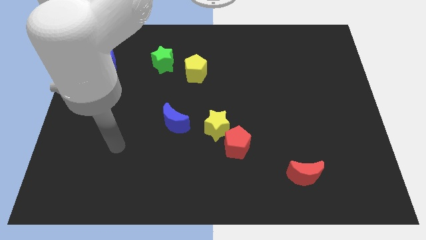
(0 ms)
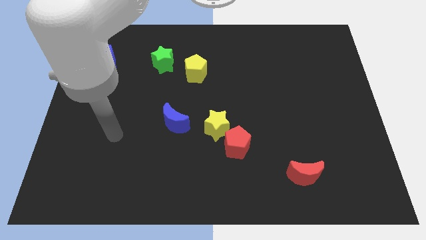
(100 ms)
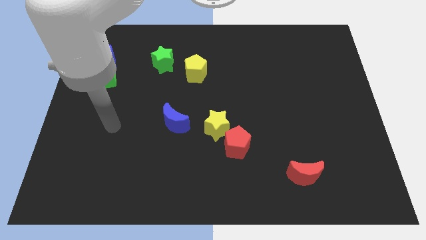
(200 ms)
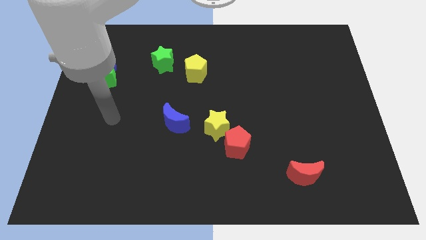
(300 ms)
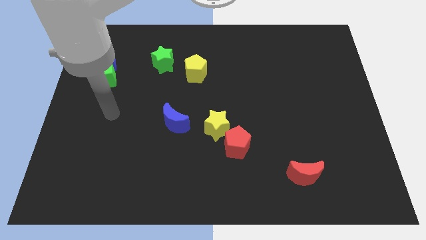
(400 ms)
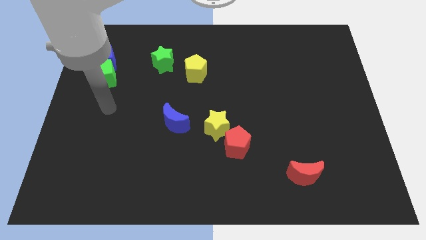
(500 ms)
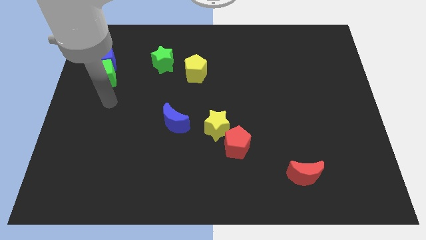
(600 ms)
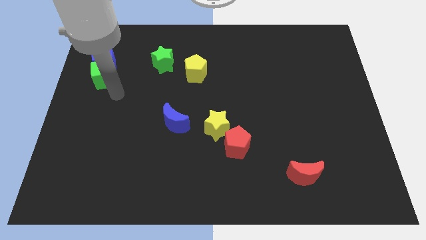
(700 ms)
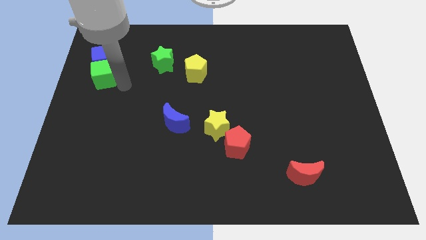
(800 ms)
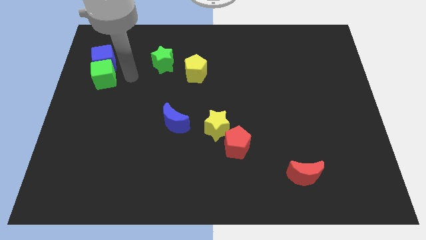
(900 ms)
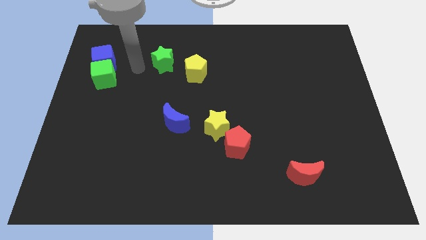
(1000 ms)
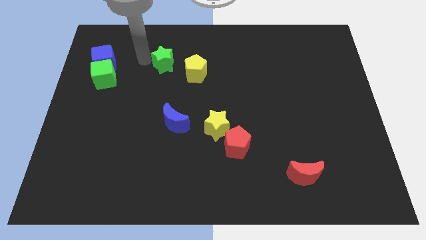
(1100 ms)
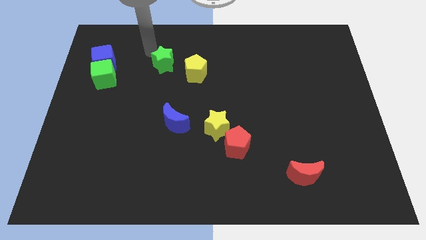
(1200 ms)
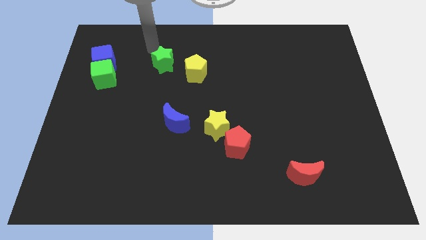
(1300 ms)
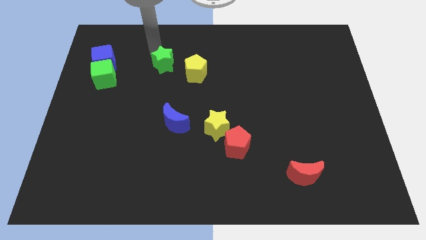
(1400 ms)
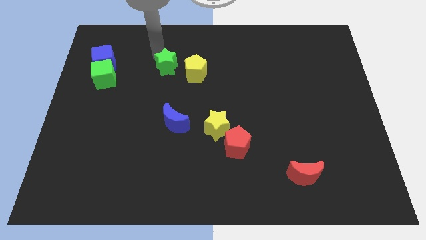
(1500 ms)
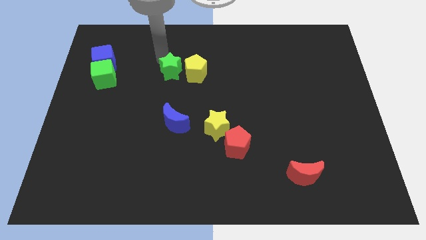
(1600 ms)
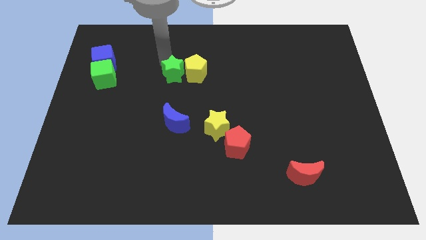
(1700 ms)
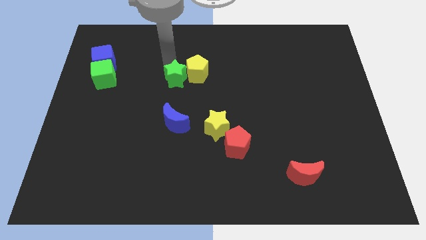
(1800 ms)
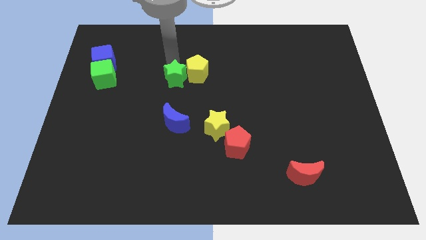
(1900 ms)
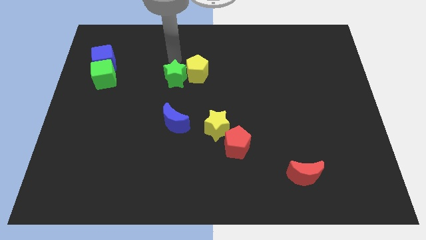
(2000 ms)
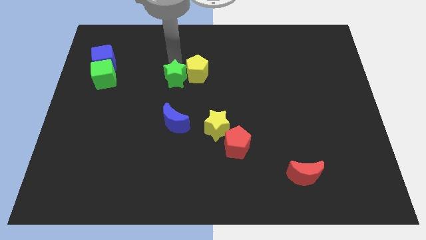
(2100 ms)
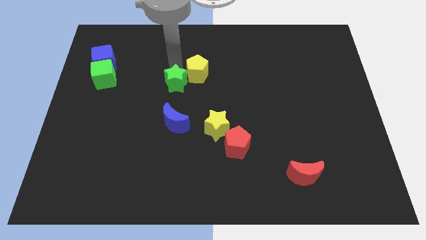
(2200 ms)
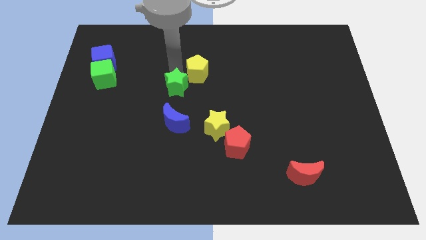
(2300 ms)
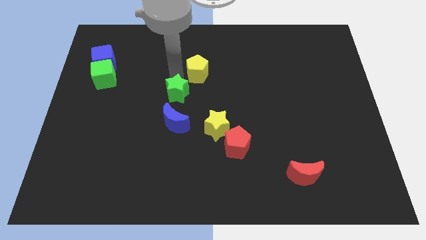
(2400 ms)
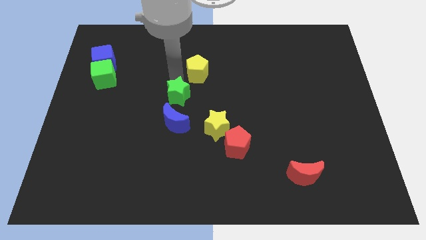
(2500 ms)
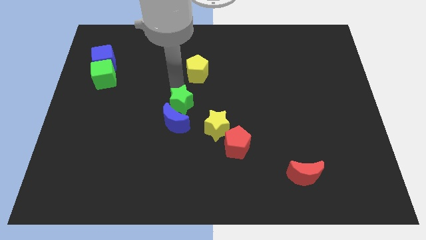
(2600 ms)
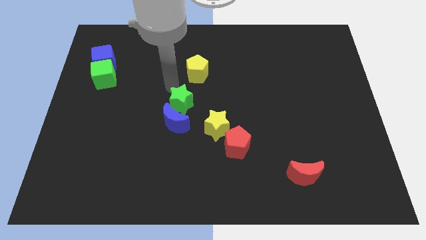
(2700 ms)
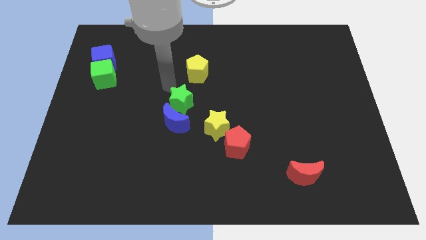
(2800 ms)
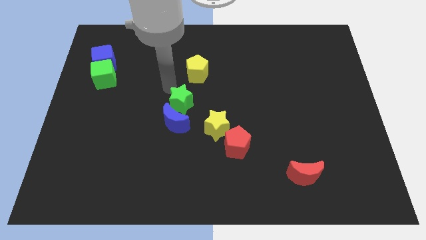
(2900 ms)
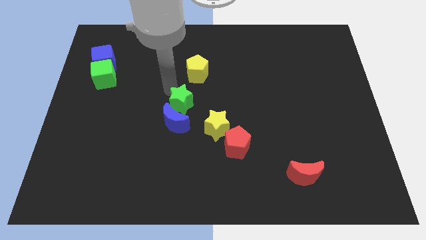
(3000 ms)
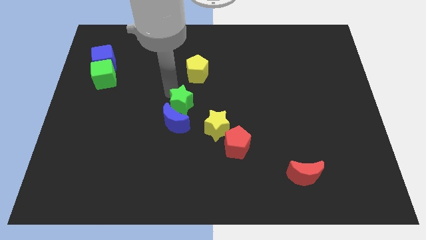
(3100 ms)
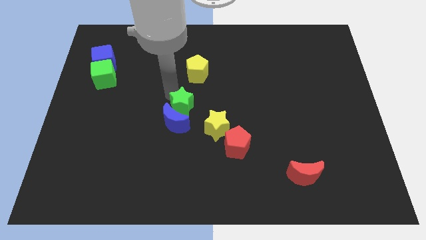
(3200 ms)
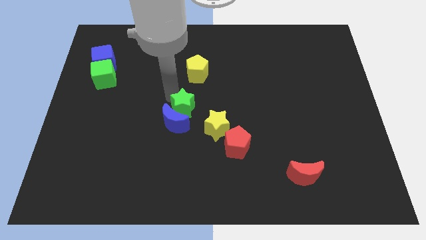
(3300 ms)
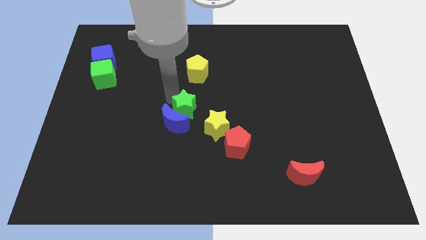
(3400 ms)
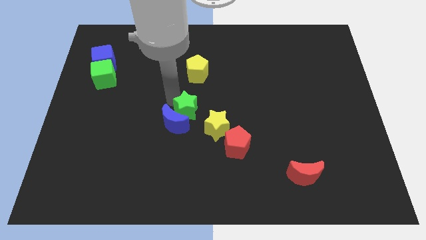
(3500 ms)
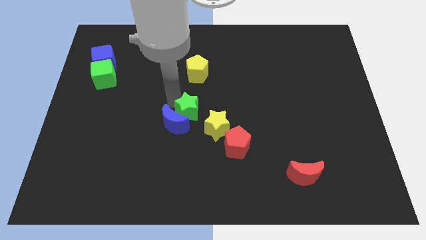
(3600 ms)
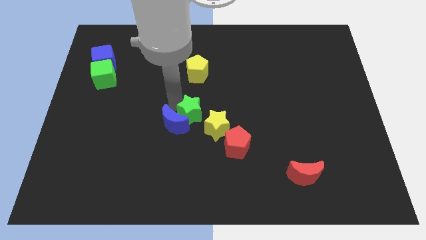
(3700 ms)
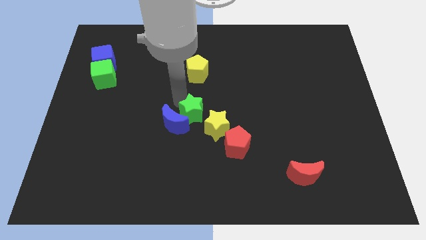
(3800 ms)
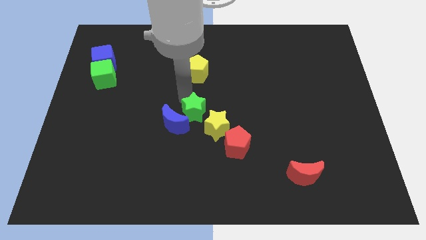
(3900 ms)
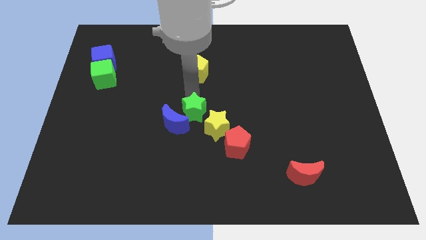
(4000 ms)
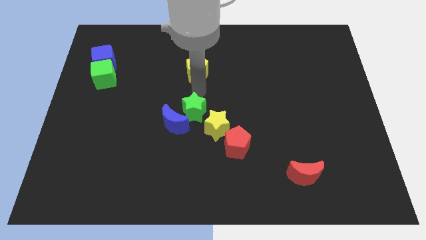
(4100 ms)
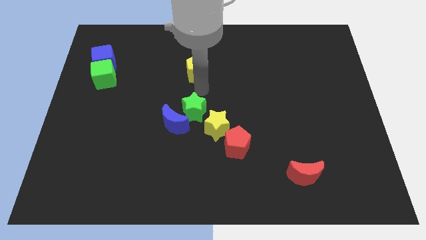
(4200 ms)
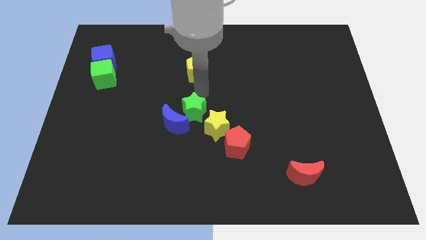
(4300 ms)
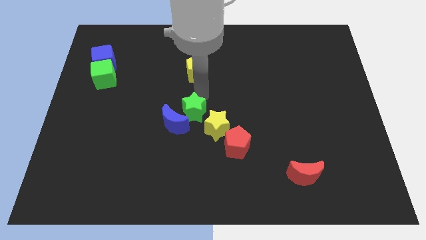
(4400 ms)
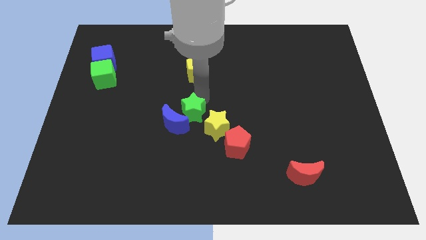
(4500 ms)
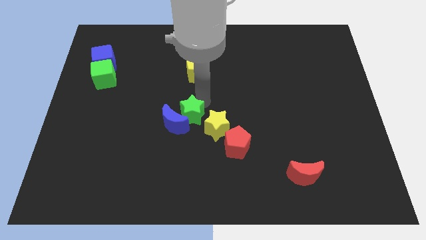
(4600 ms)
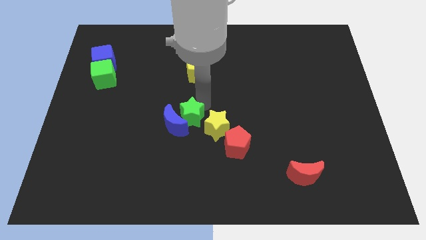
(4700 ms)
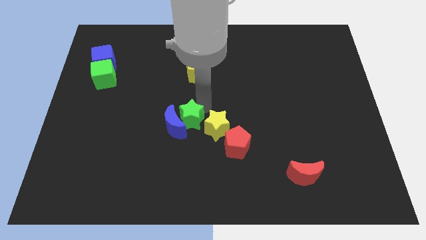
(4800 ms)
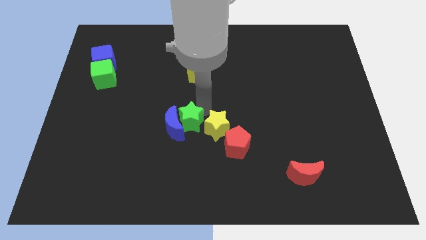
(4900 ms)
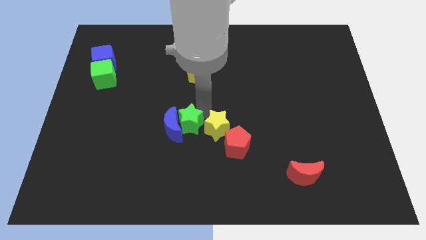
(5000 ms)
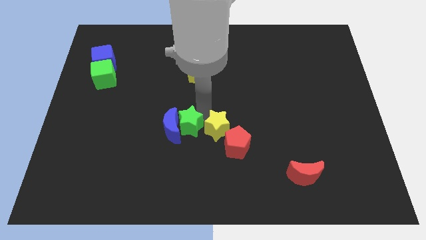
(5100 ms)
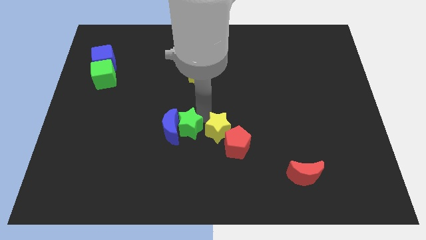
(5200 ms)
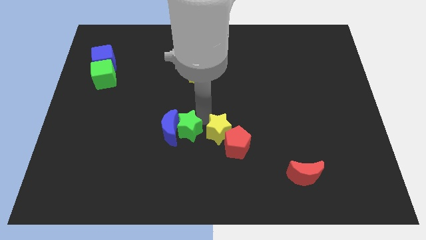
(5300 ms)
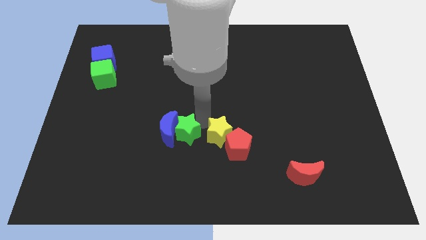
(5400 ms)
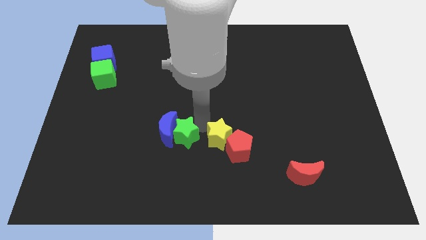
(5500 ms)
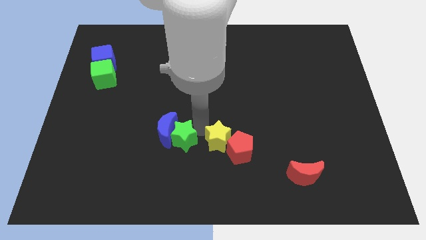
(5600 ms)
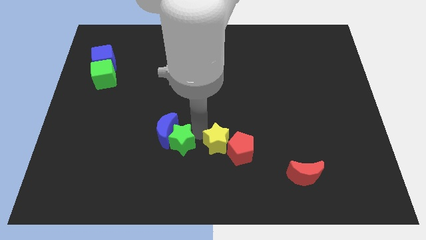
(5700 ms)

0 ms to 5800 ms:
move the green star to the bottom of the blue moon

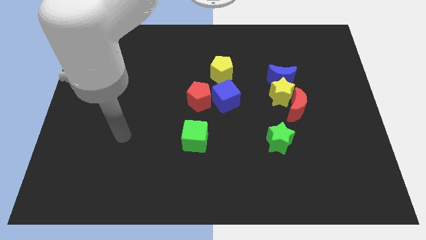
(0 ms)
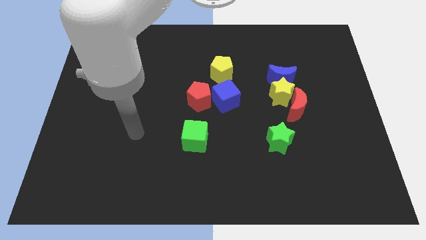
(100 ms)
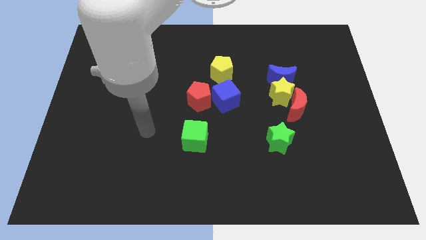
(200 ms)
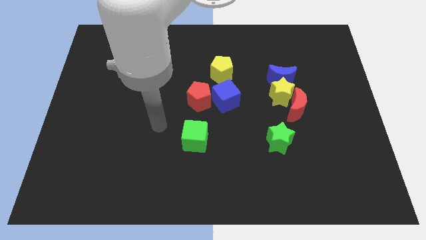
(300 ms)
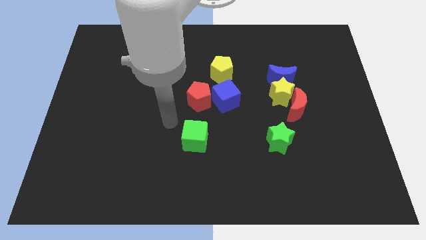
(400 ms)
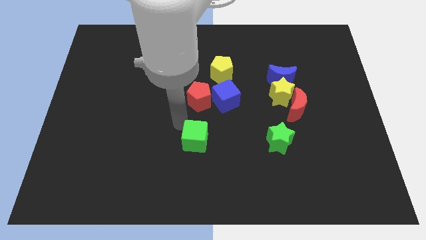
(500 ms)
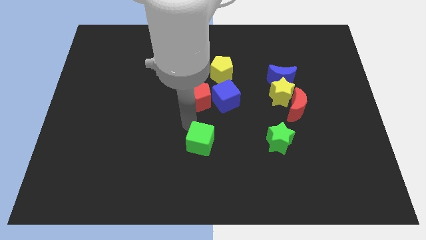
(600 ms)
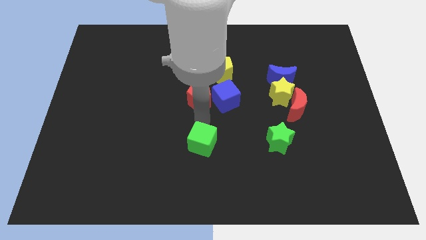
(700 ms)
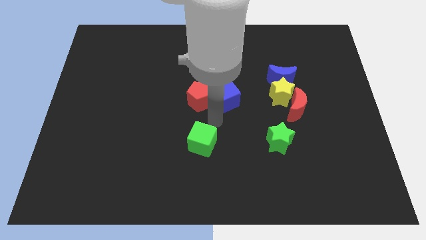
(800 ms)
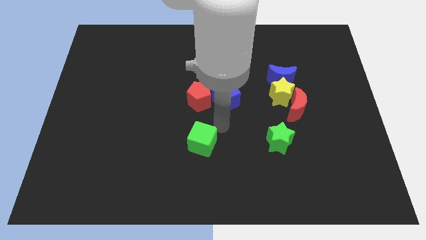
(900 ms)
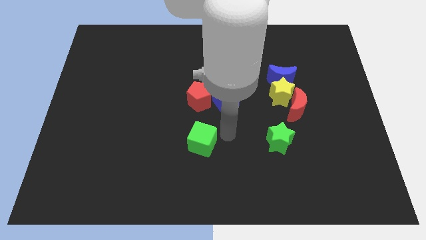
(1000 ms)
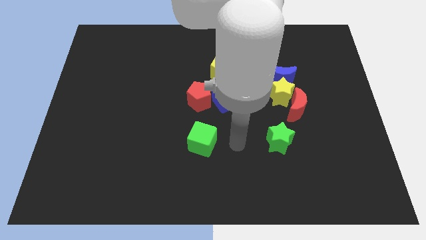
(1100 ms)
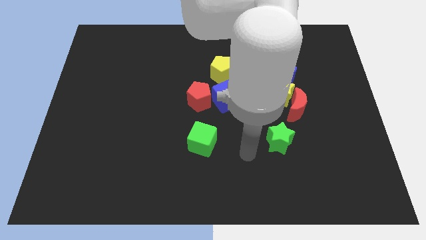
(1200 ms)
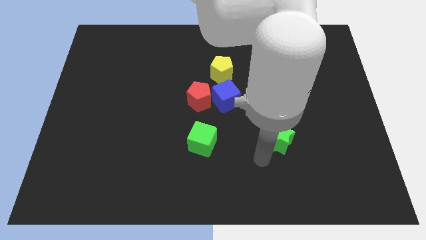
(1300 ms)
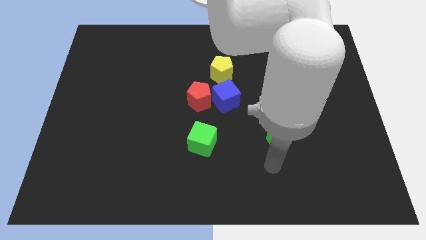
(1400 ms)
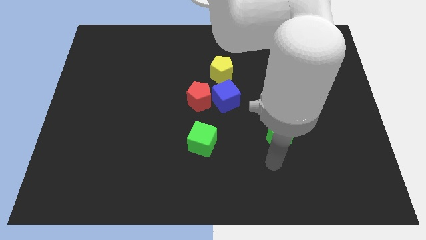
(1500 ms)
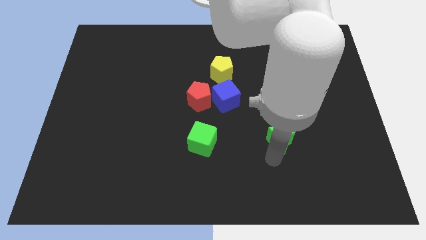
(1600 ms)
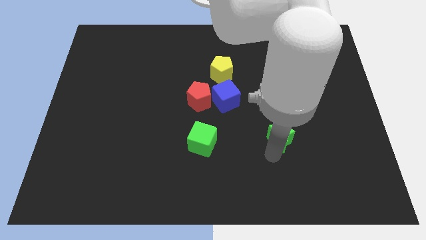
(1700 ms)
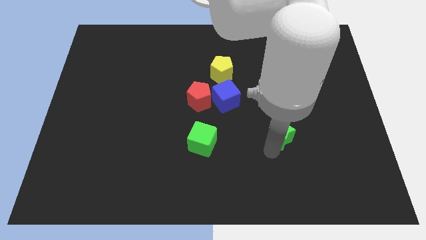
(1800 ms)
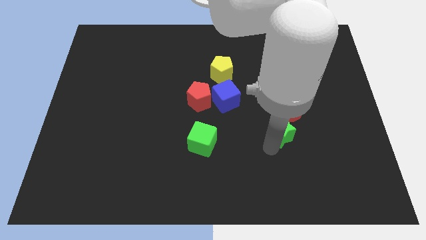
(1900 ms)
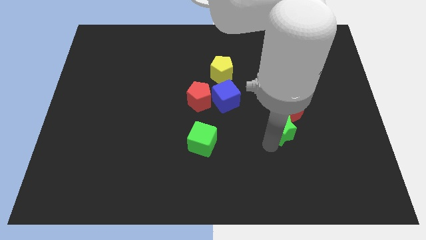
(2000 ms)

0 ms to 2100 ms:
slide the green star to the bottom side of the blue moon
